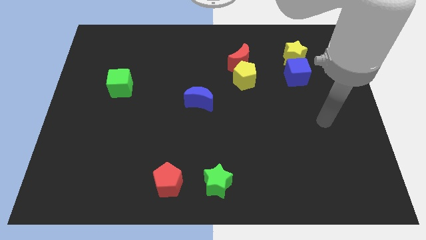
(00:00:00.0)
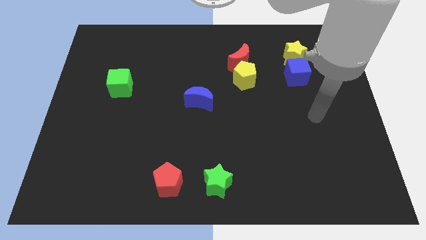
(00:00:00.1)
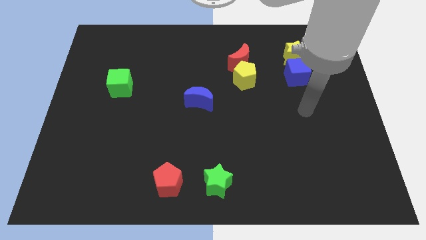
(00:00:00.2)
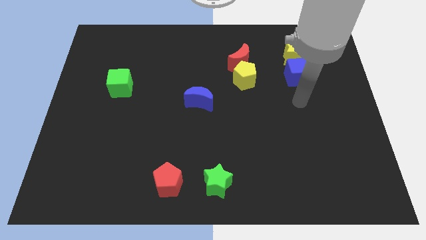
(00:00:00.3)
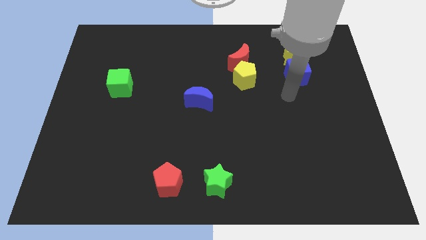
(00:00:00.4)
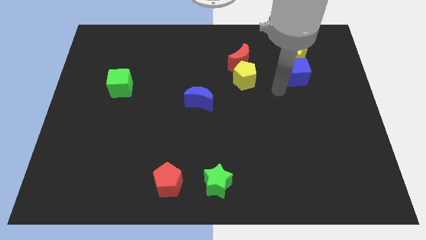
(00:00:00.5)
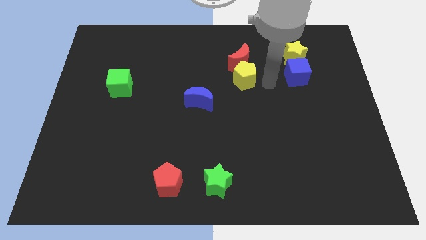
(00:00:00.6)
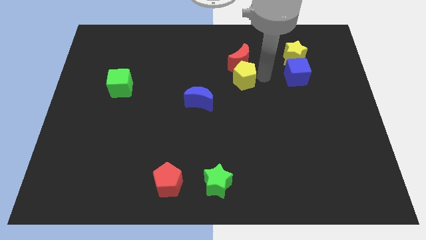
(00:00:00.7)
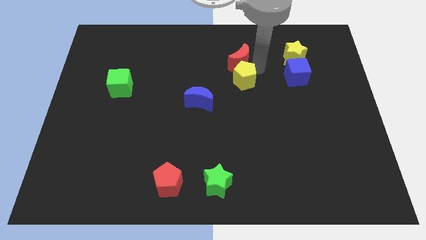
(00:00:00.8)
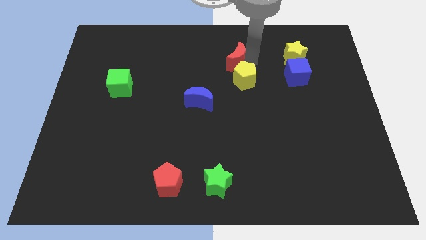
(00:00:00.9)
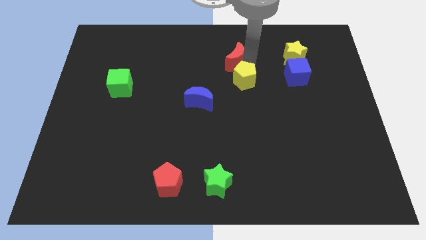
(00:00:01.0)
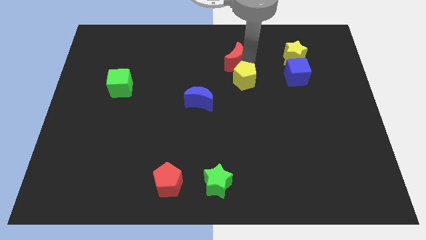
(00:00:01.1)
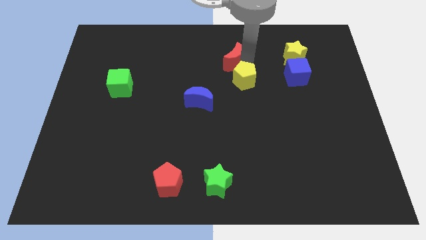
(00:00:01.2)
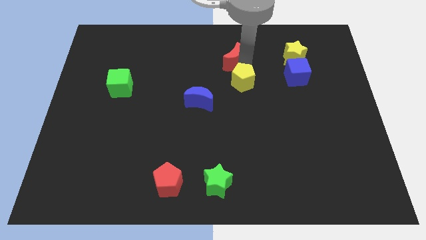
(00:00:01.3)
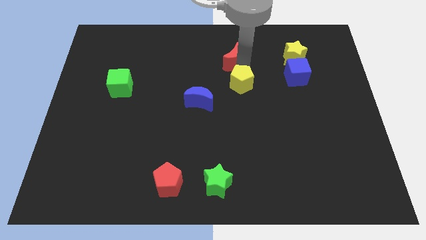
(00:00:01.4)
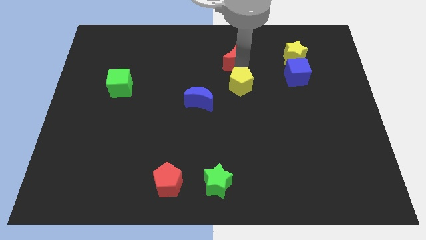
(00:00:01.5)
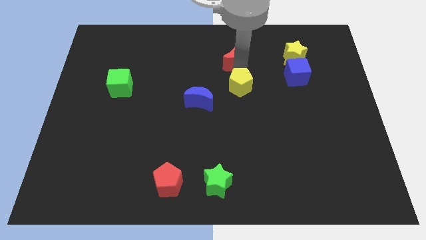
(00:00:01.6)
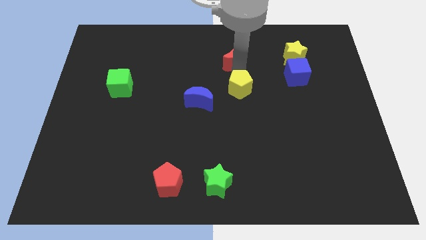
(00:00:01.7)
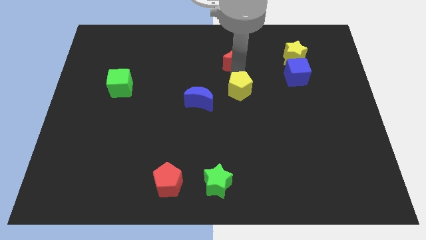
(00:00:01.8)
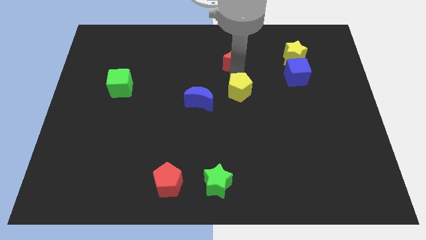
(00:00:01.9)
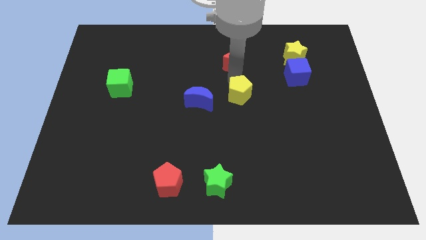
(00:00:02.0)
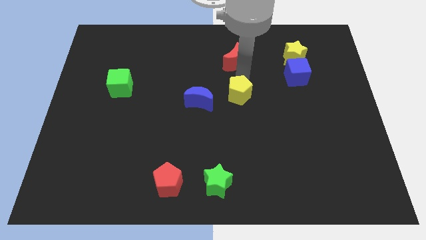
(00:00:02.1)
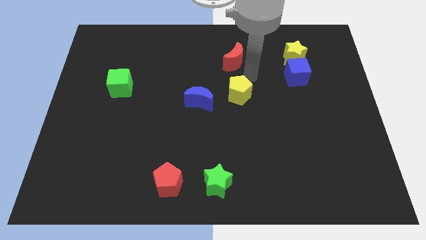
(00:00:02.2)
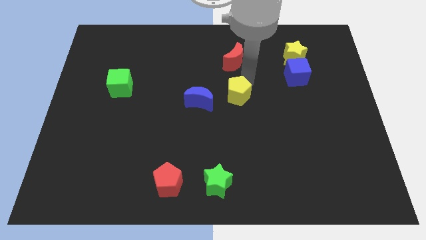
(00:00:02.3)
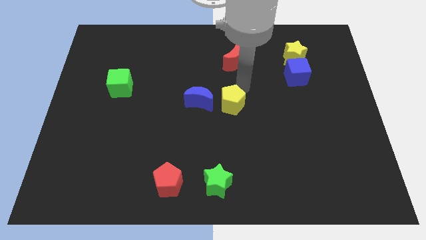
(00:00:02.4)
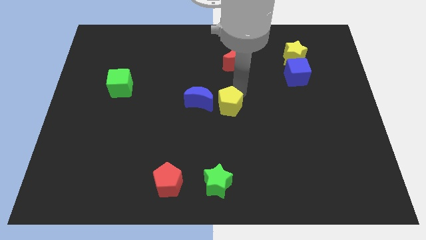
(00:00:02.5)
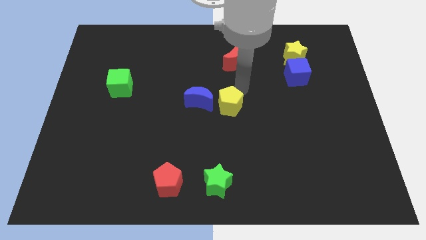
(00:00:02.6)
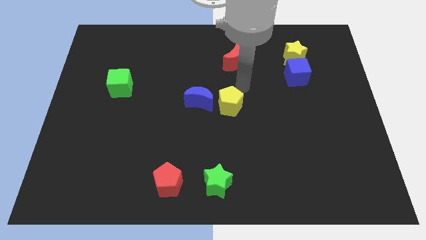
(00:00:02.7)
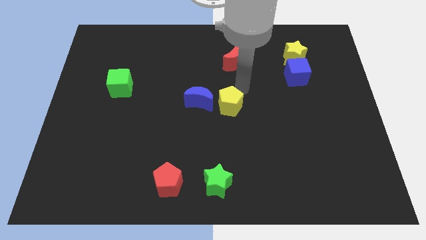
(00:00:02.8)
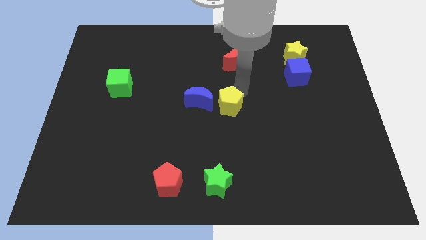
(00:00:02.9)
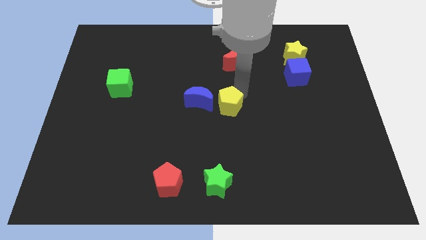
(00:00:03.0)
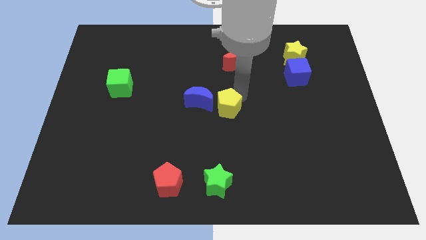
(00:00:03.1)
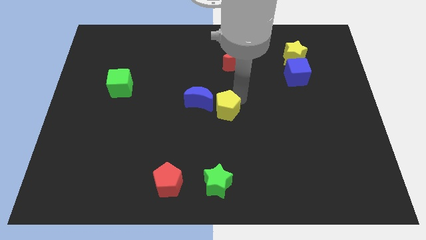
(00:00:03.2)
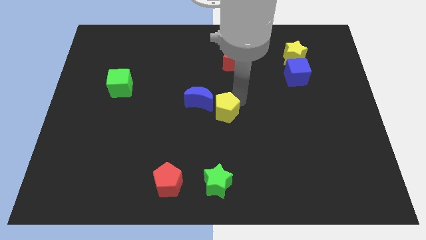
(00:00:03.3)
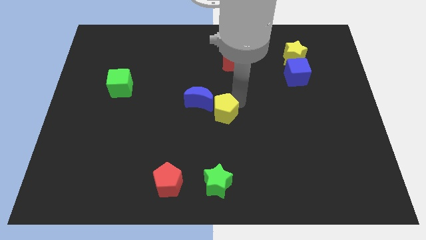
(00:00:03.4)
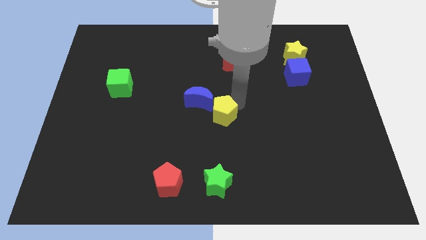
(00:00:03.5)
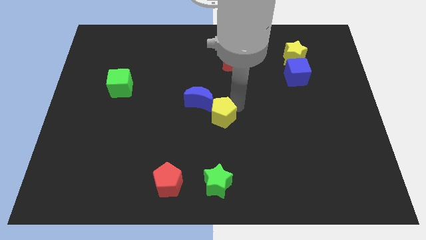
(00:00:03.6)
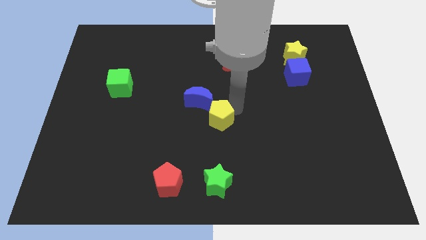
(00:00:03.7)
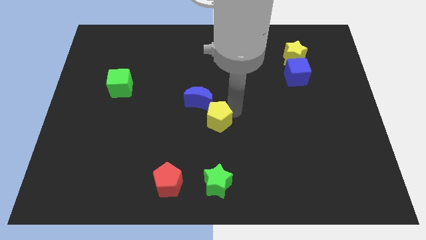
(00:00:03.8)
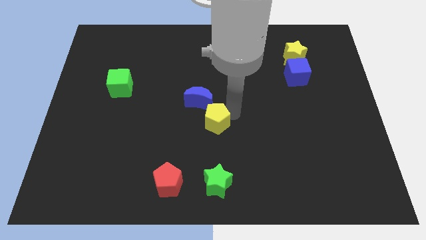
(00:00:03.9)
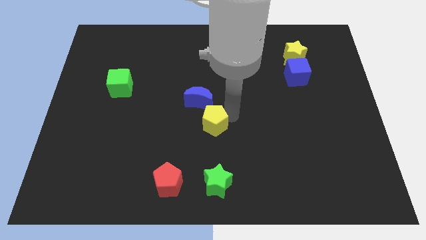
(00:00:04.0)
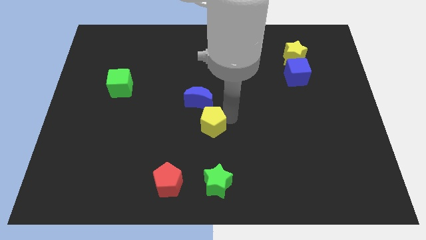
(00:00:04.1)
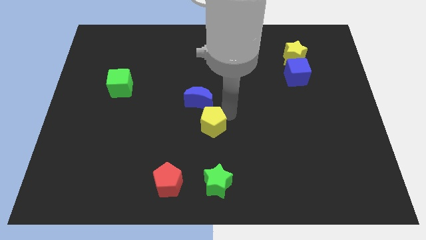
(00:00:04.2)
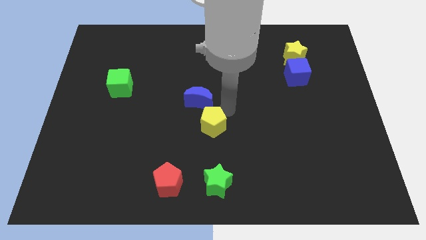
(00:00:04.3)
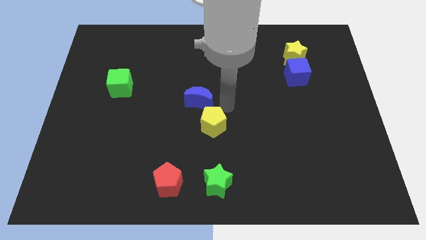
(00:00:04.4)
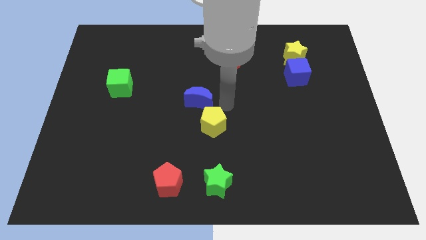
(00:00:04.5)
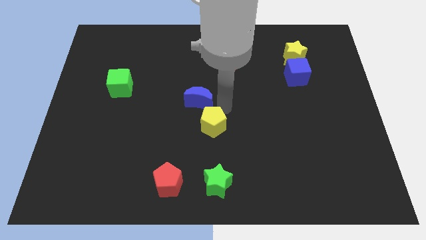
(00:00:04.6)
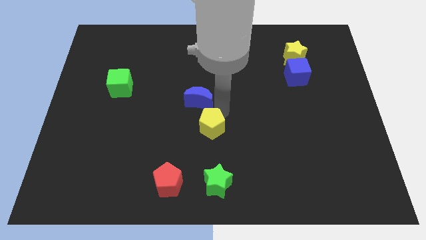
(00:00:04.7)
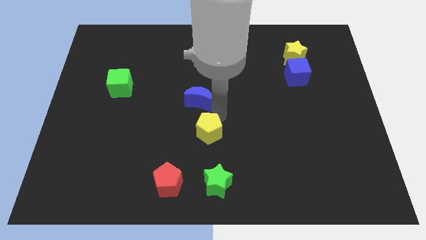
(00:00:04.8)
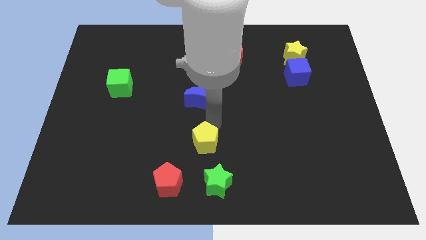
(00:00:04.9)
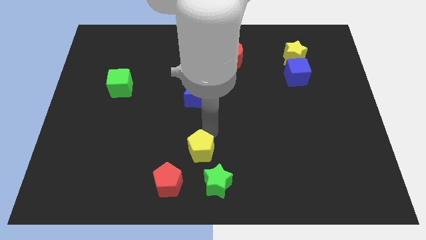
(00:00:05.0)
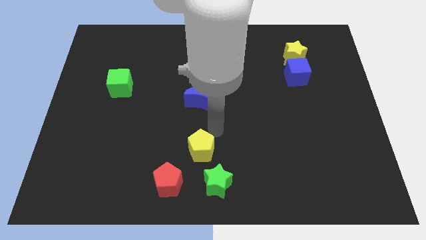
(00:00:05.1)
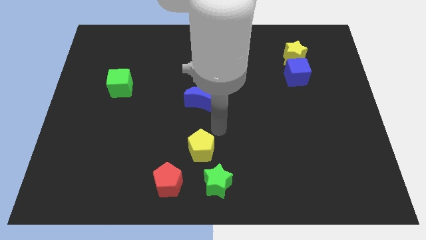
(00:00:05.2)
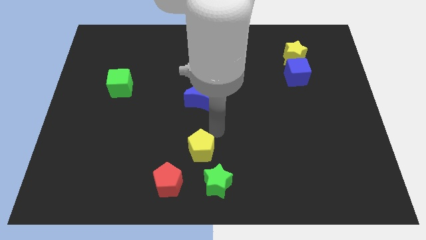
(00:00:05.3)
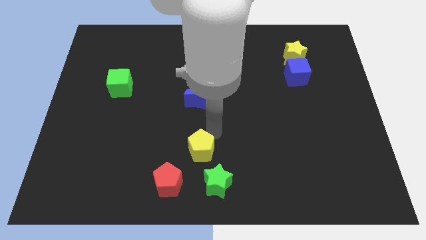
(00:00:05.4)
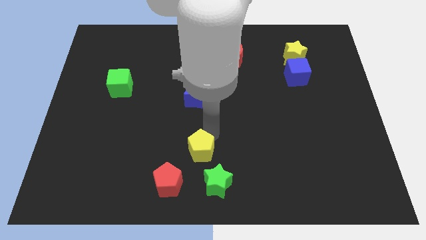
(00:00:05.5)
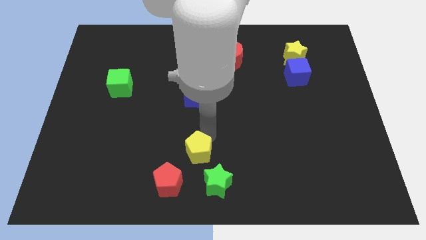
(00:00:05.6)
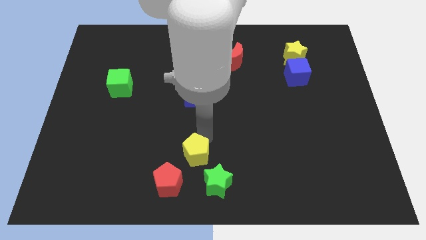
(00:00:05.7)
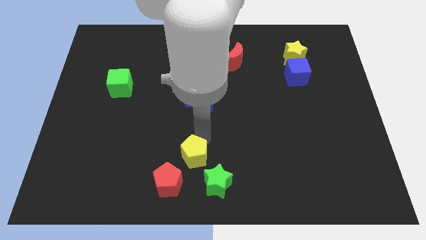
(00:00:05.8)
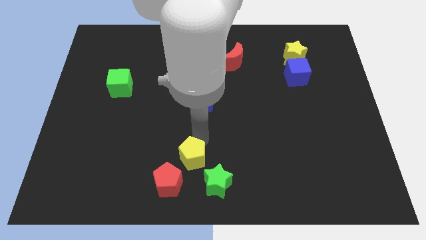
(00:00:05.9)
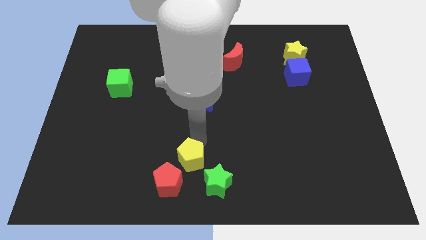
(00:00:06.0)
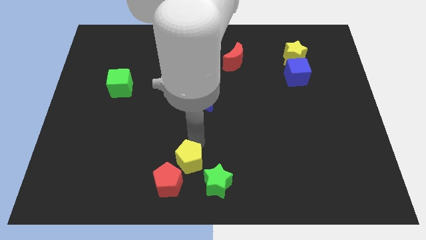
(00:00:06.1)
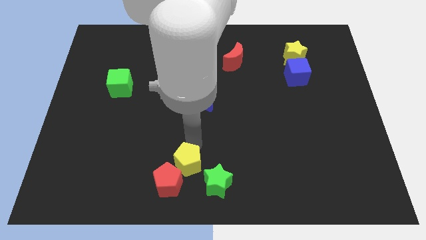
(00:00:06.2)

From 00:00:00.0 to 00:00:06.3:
move the yellow pentagon next to the red pentagon

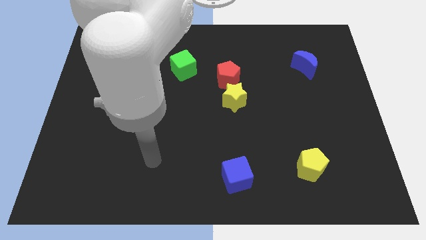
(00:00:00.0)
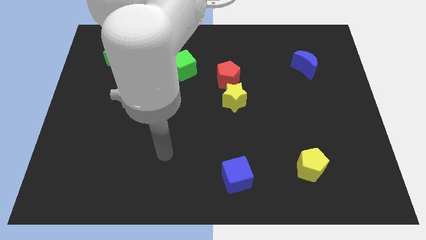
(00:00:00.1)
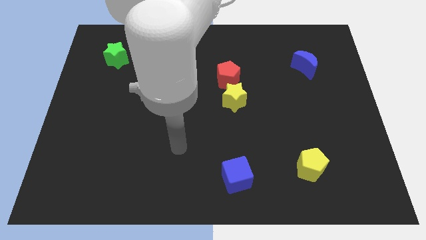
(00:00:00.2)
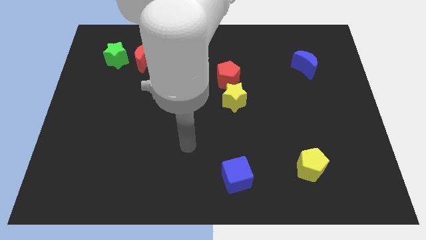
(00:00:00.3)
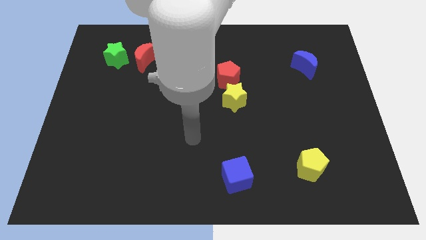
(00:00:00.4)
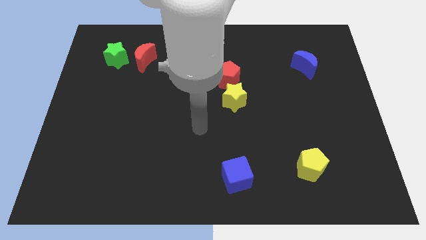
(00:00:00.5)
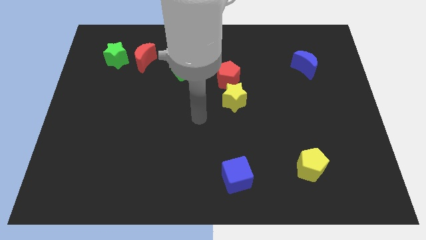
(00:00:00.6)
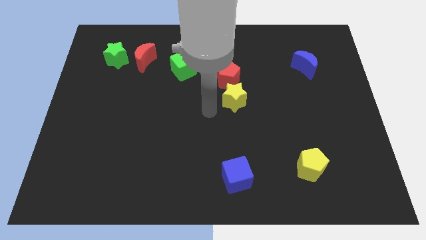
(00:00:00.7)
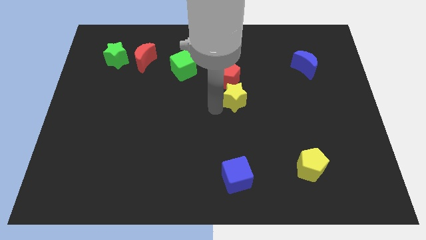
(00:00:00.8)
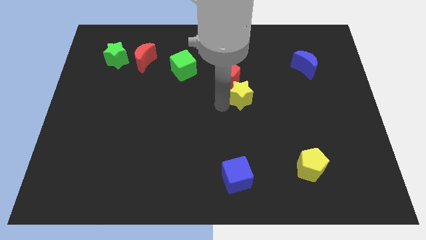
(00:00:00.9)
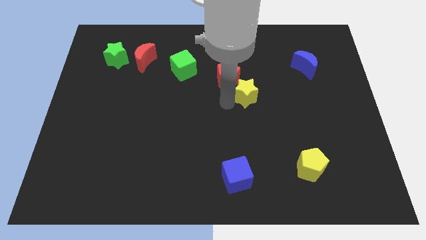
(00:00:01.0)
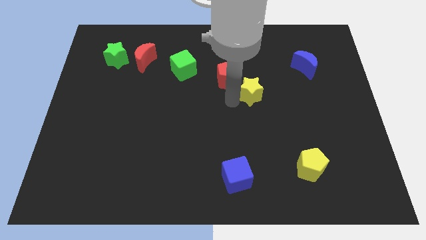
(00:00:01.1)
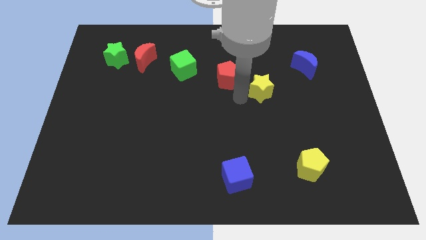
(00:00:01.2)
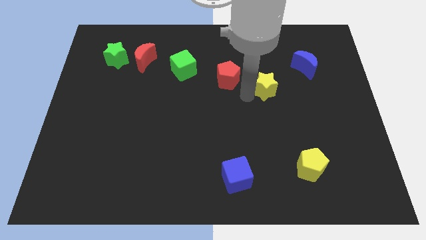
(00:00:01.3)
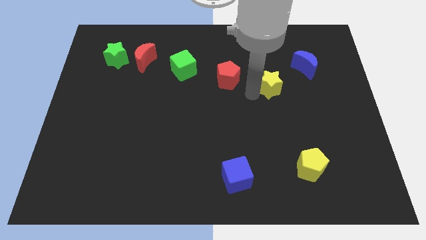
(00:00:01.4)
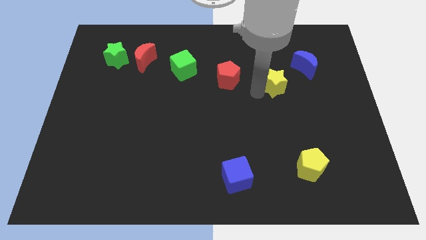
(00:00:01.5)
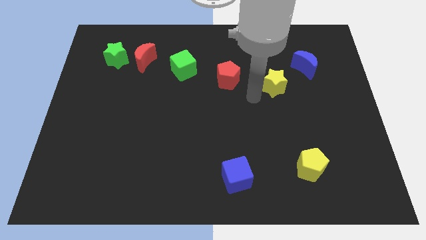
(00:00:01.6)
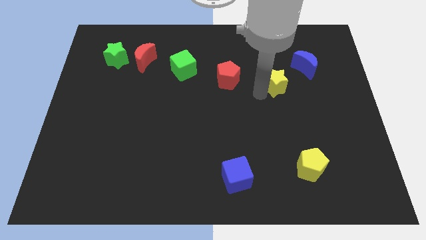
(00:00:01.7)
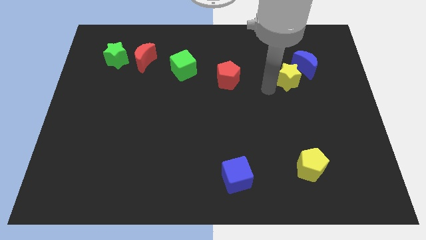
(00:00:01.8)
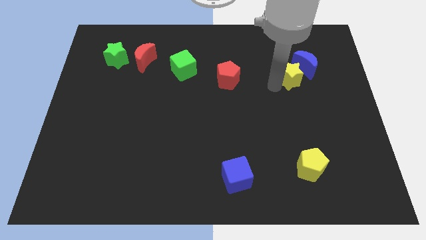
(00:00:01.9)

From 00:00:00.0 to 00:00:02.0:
slide the yellow star close to the blue moon
